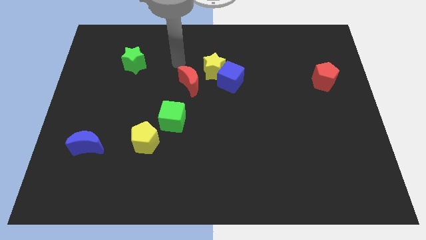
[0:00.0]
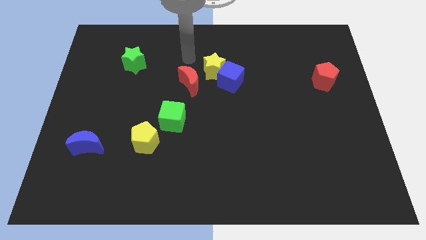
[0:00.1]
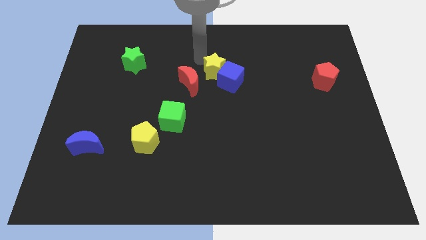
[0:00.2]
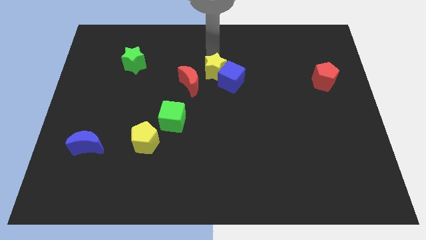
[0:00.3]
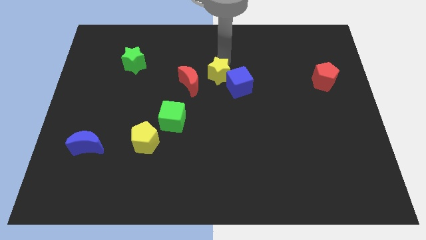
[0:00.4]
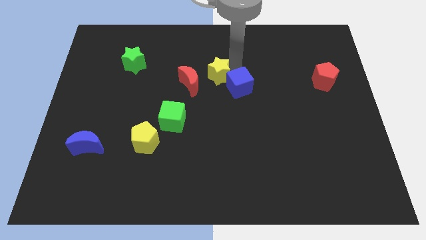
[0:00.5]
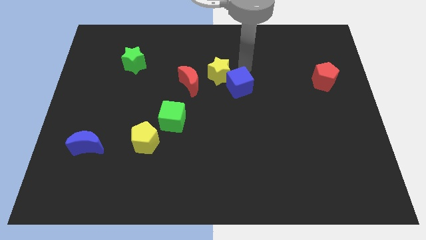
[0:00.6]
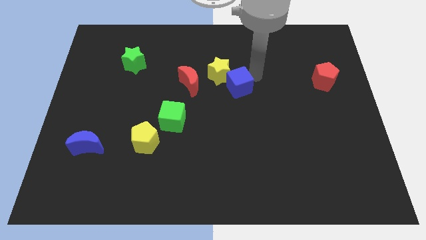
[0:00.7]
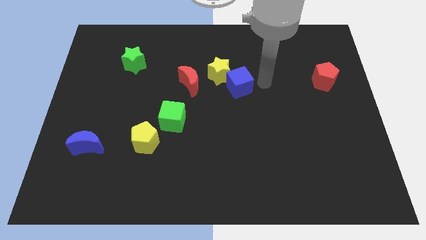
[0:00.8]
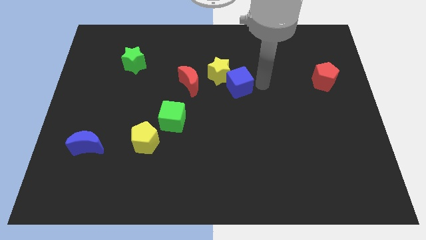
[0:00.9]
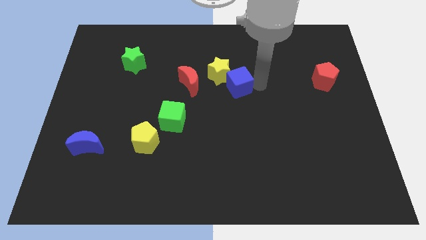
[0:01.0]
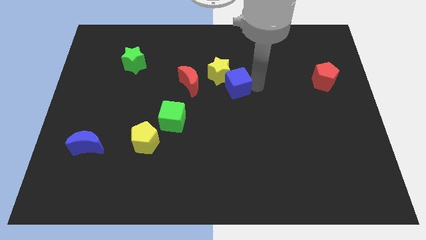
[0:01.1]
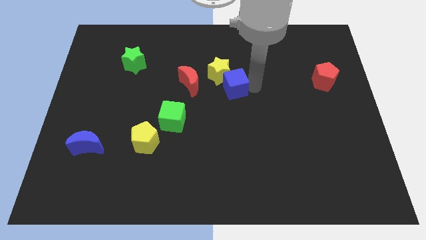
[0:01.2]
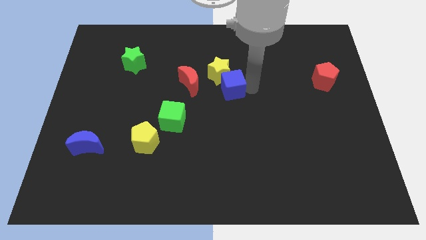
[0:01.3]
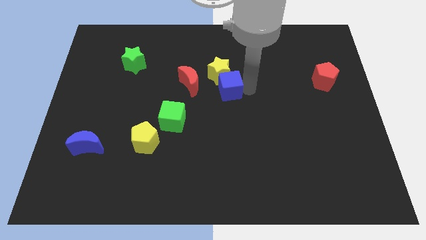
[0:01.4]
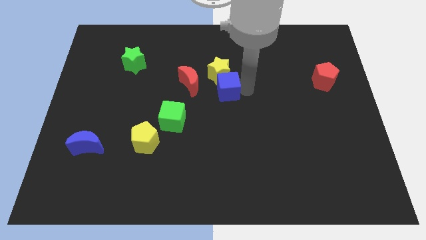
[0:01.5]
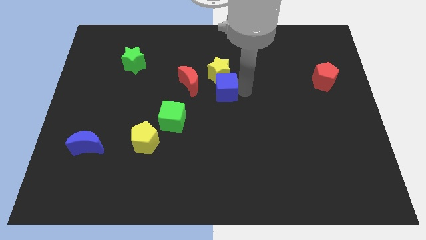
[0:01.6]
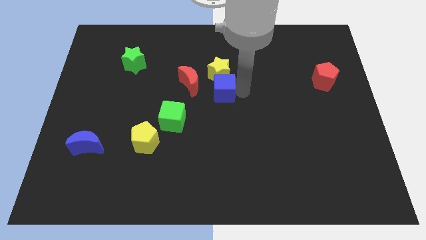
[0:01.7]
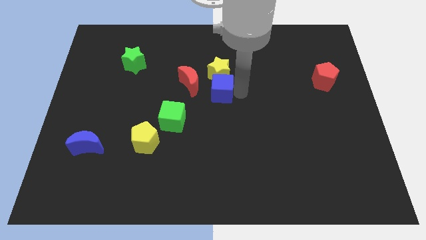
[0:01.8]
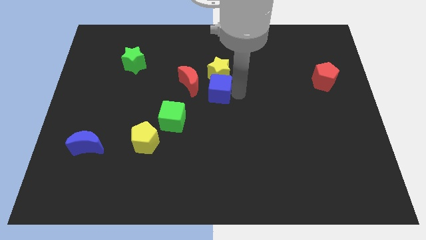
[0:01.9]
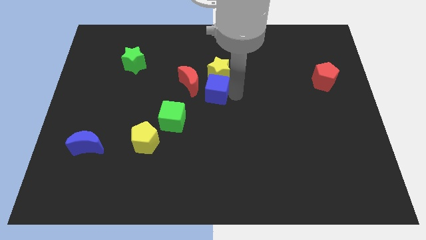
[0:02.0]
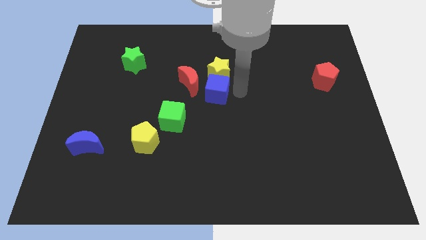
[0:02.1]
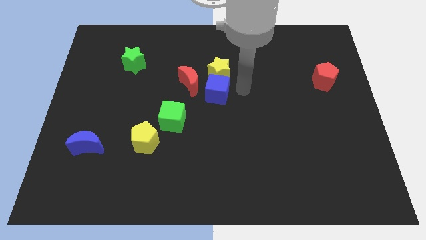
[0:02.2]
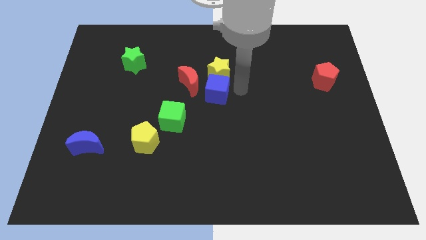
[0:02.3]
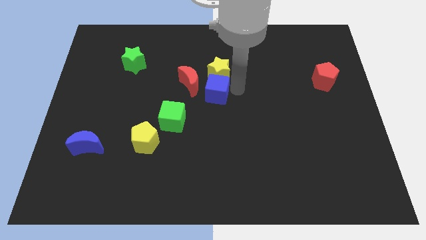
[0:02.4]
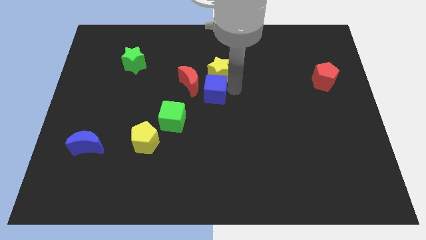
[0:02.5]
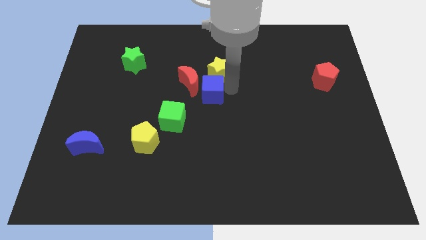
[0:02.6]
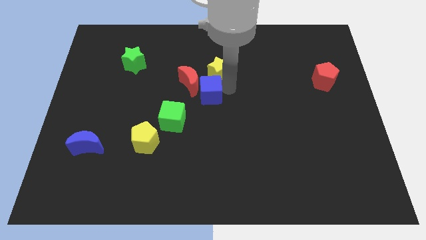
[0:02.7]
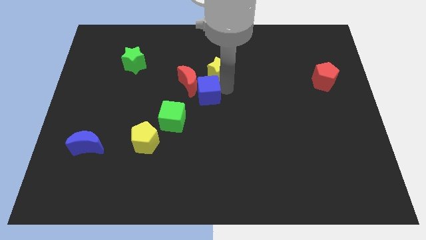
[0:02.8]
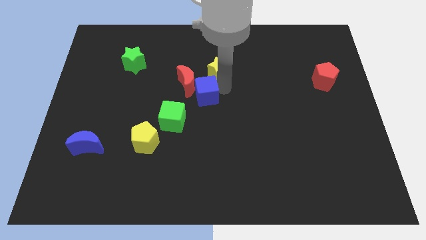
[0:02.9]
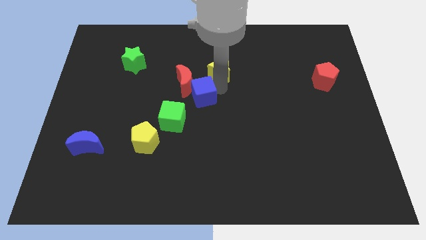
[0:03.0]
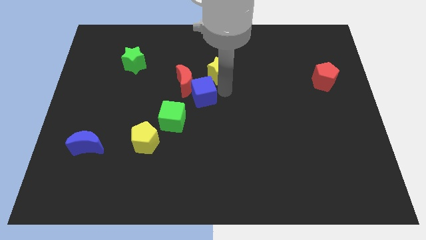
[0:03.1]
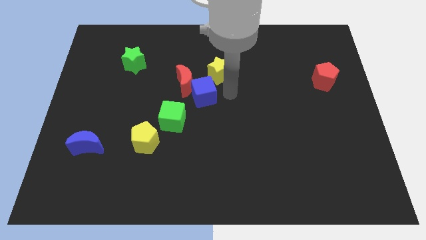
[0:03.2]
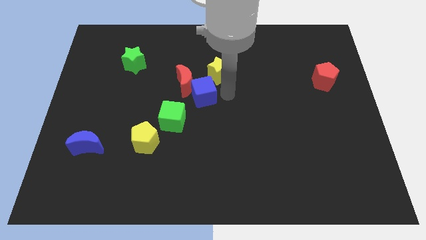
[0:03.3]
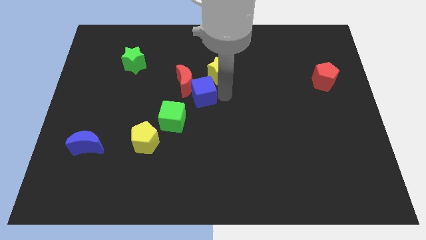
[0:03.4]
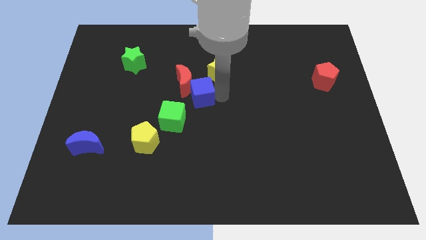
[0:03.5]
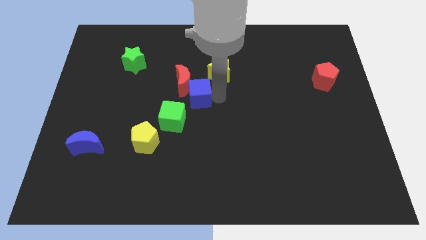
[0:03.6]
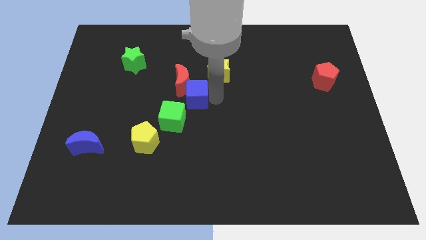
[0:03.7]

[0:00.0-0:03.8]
slide the blue cube left slightly

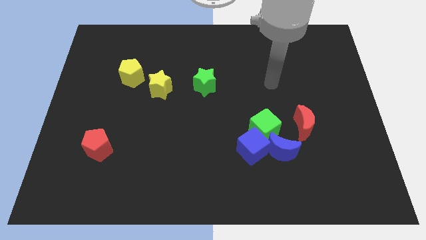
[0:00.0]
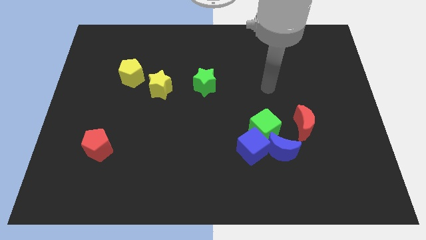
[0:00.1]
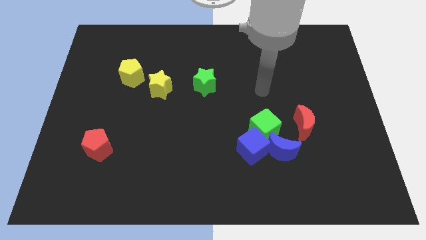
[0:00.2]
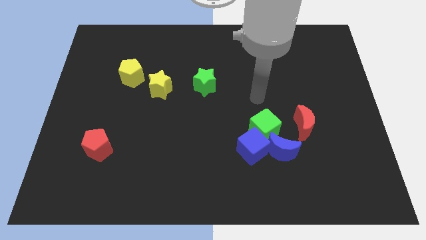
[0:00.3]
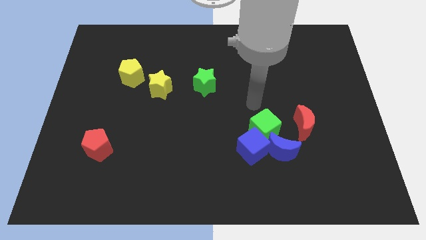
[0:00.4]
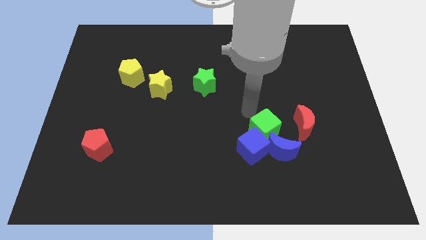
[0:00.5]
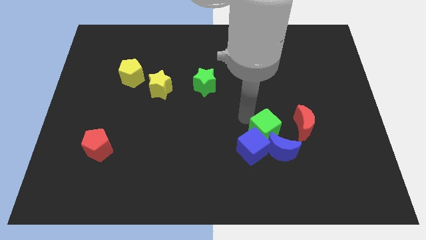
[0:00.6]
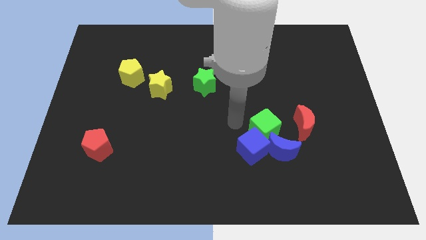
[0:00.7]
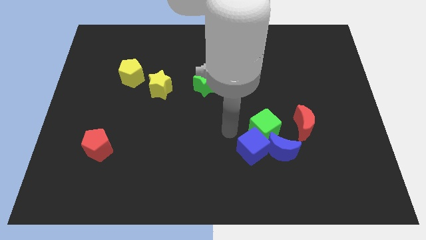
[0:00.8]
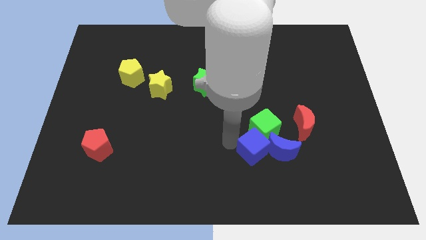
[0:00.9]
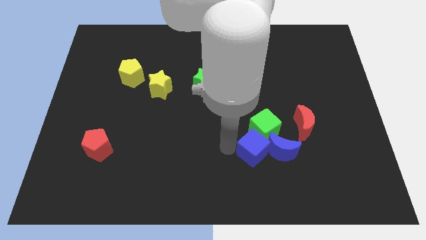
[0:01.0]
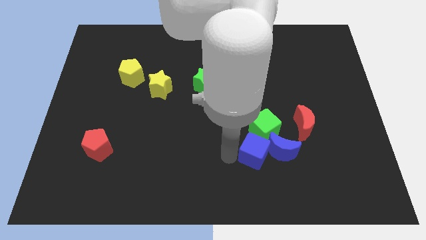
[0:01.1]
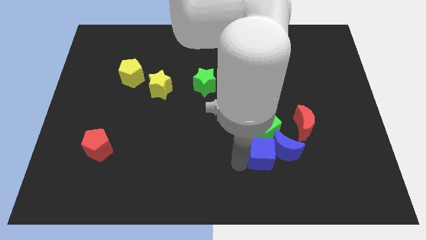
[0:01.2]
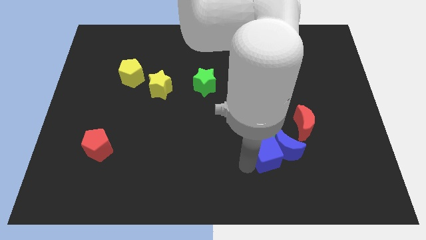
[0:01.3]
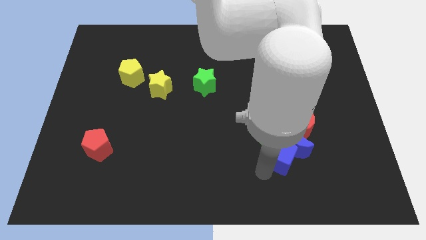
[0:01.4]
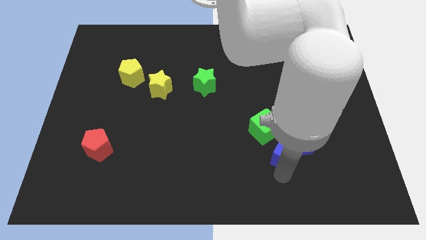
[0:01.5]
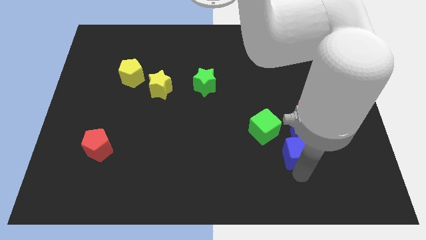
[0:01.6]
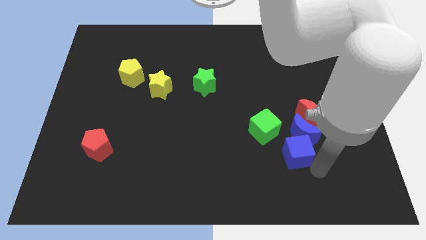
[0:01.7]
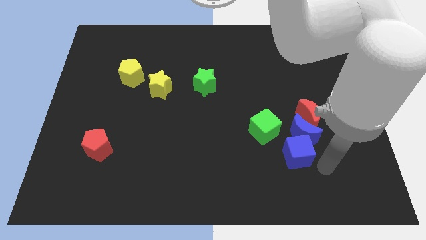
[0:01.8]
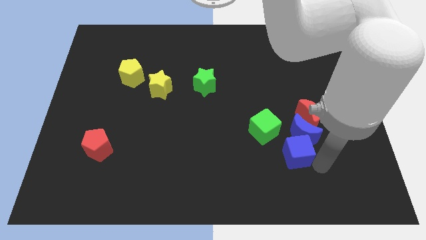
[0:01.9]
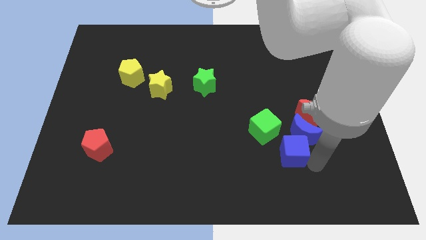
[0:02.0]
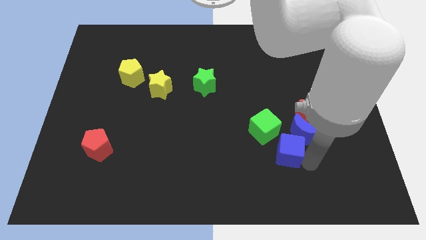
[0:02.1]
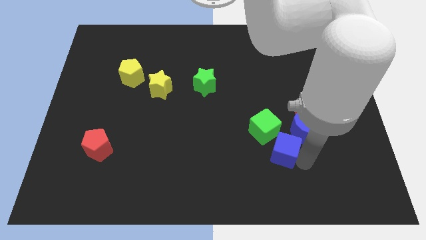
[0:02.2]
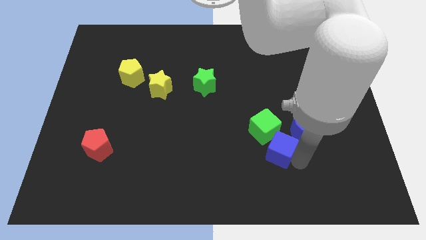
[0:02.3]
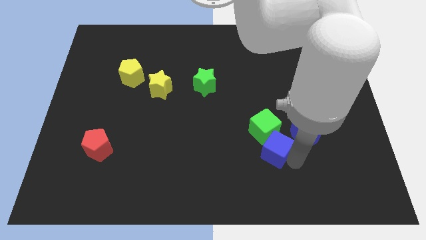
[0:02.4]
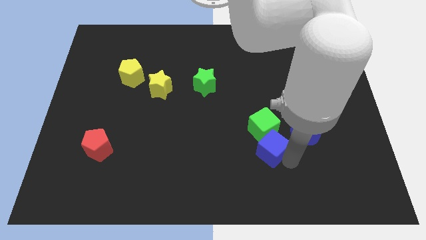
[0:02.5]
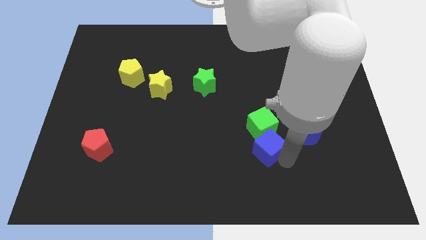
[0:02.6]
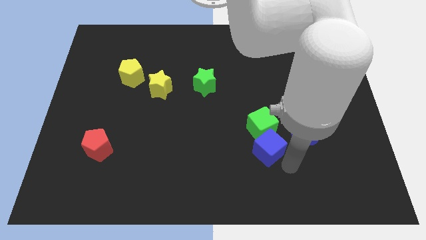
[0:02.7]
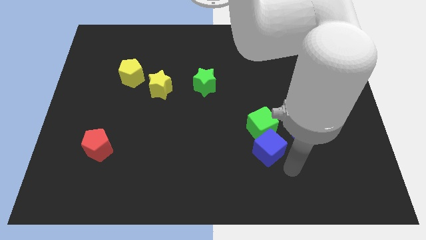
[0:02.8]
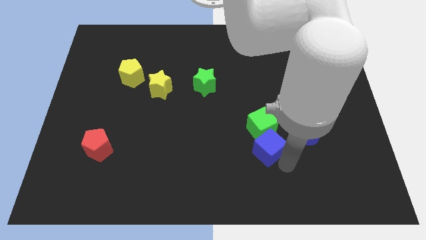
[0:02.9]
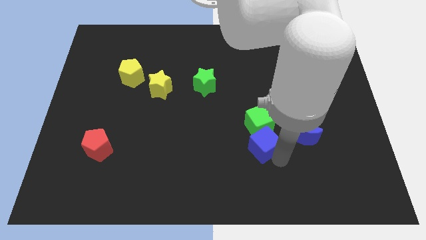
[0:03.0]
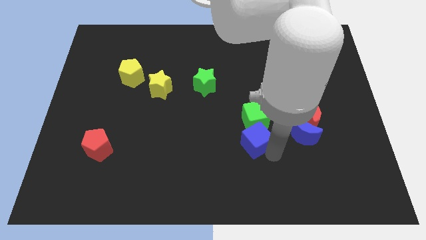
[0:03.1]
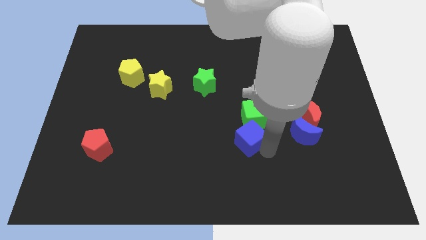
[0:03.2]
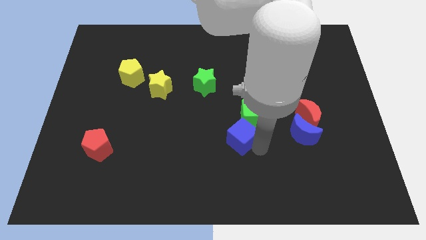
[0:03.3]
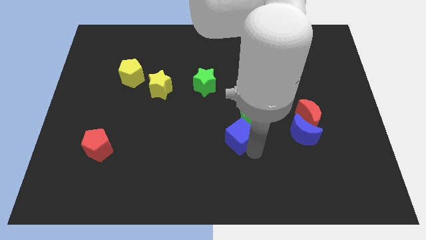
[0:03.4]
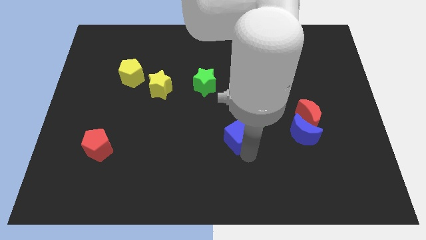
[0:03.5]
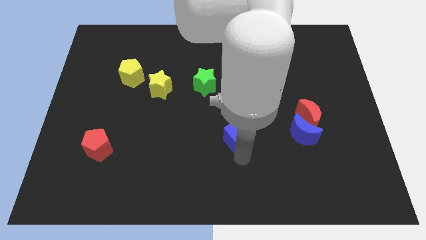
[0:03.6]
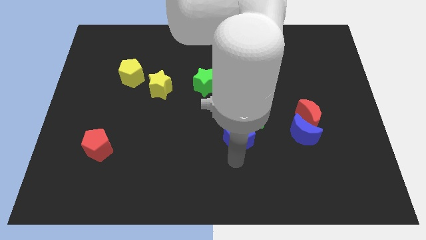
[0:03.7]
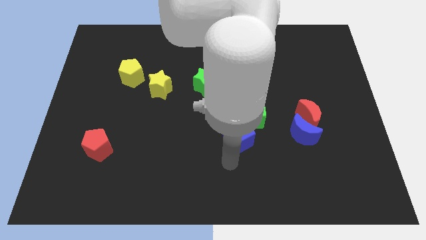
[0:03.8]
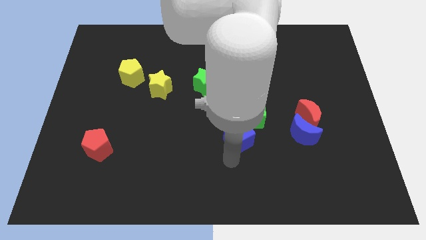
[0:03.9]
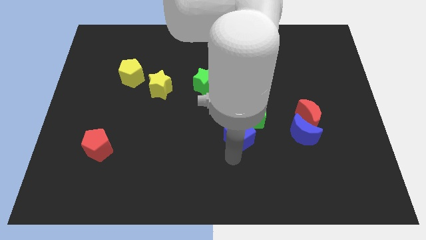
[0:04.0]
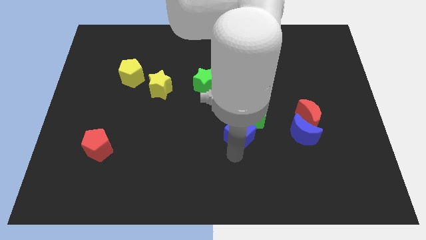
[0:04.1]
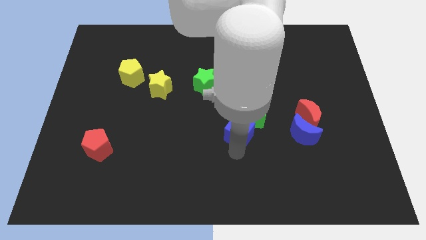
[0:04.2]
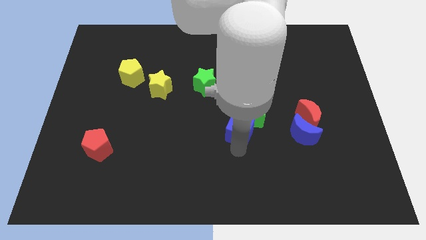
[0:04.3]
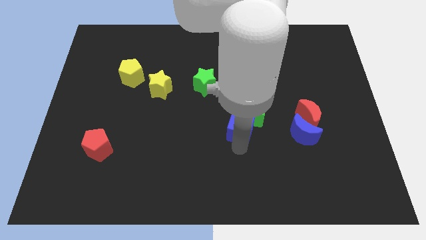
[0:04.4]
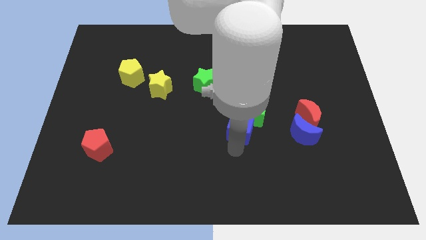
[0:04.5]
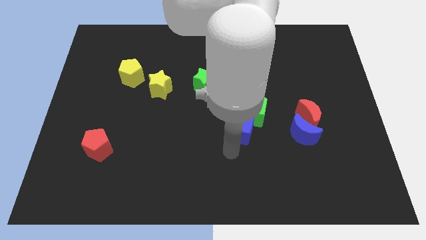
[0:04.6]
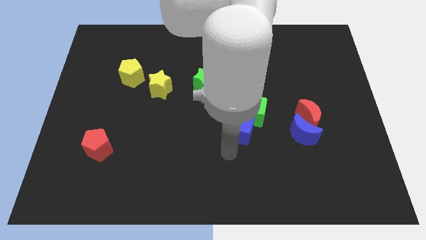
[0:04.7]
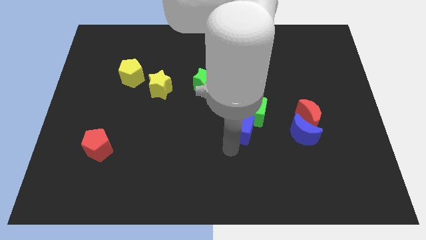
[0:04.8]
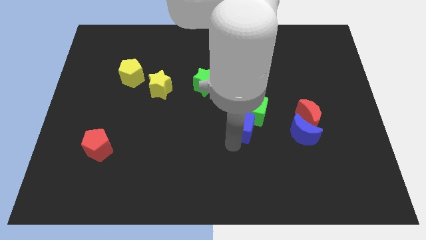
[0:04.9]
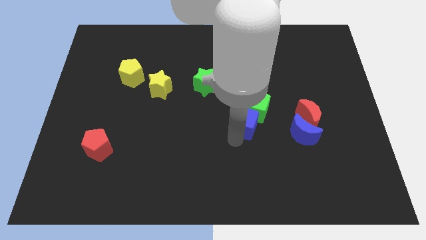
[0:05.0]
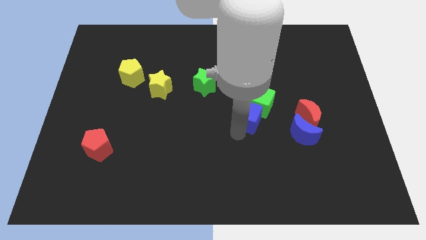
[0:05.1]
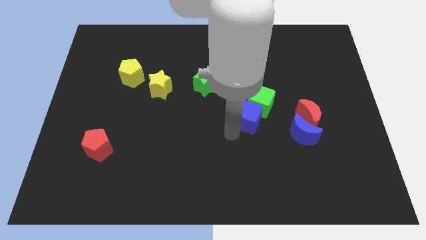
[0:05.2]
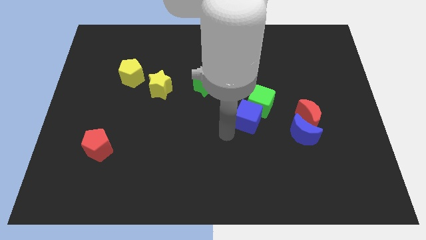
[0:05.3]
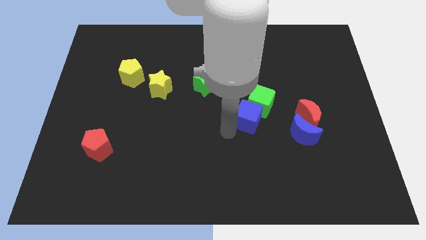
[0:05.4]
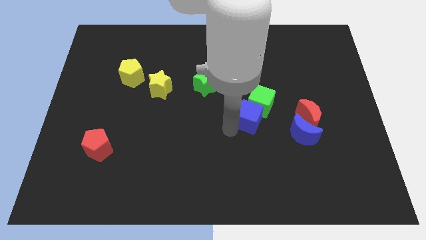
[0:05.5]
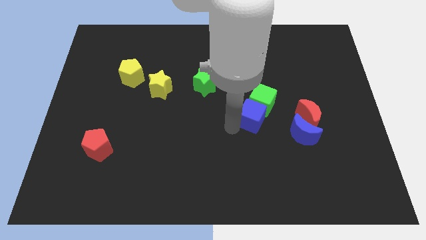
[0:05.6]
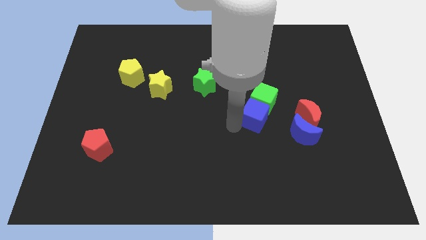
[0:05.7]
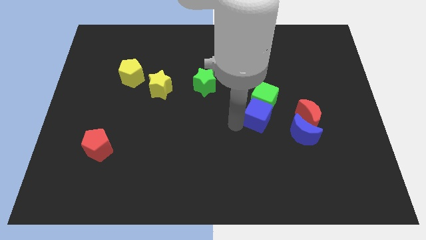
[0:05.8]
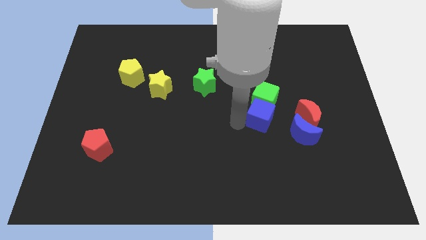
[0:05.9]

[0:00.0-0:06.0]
push the blue cube upwards and to the right somewhat
